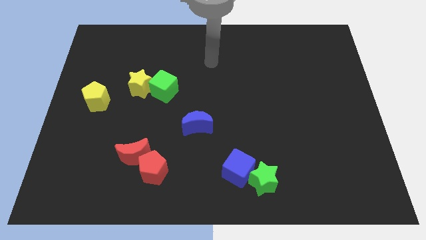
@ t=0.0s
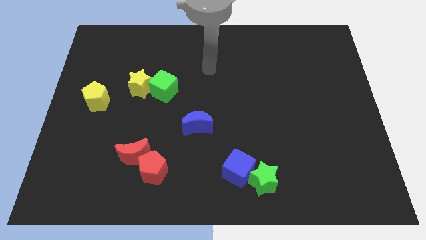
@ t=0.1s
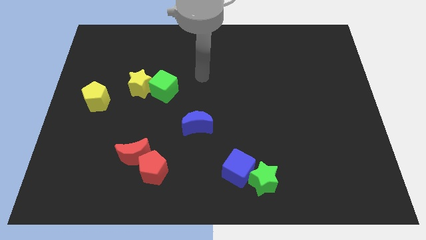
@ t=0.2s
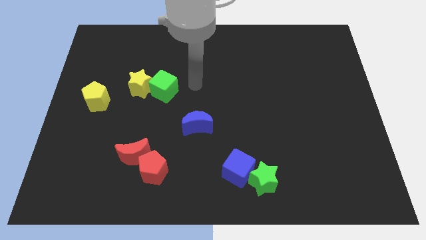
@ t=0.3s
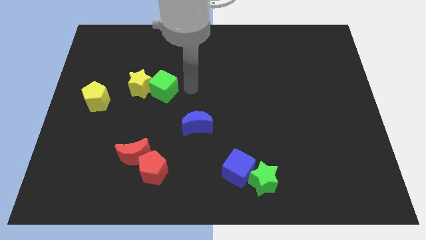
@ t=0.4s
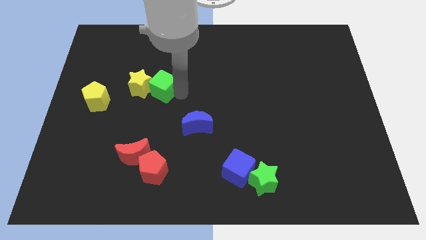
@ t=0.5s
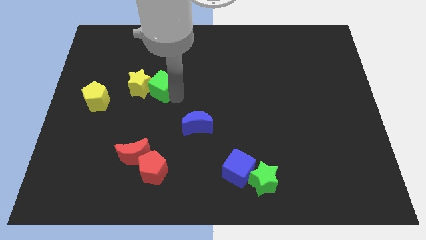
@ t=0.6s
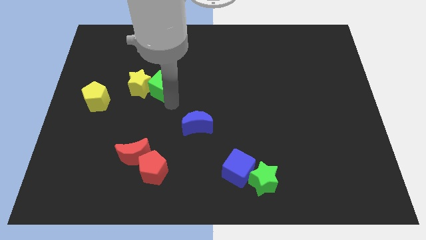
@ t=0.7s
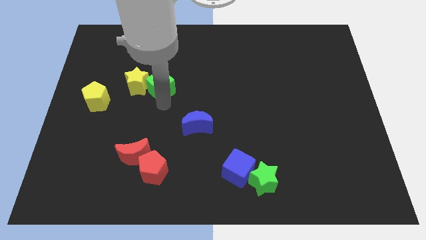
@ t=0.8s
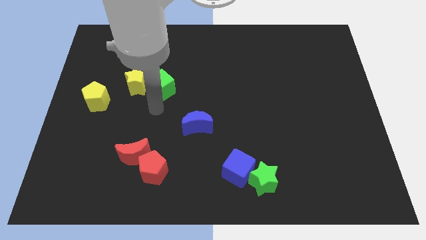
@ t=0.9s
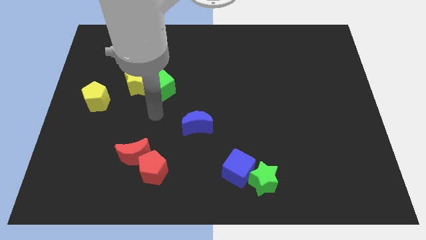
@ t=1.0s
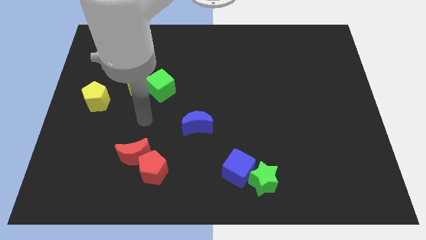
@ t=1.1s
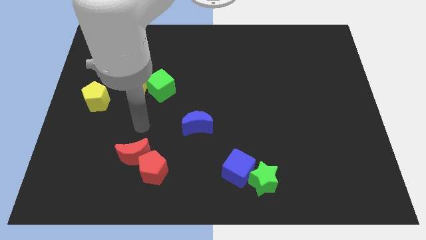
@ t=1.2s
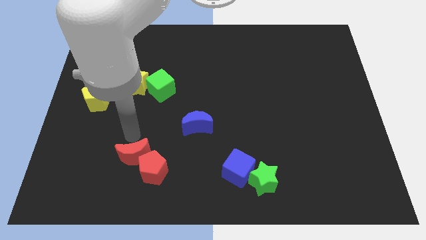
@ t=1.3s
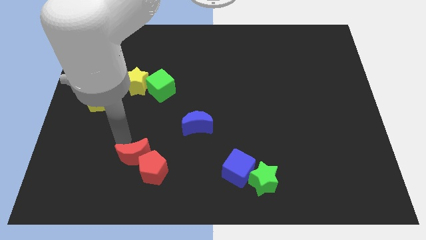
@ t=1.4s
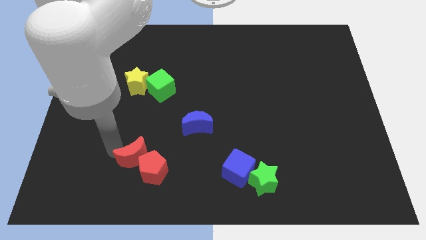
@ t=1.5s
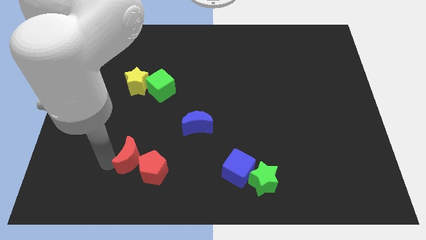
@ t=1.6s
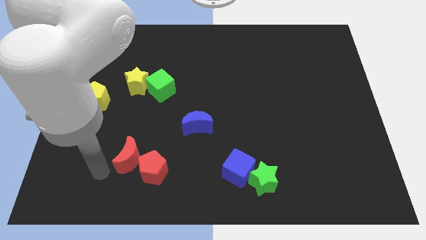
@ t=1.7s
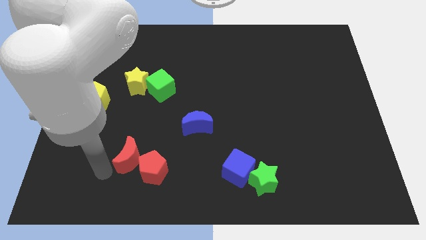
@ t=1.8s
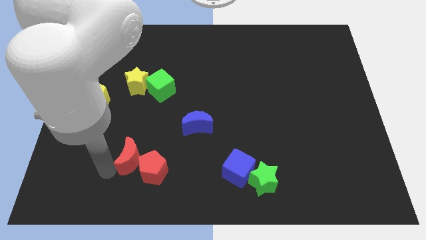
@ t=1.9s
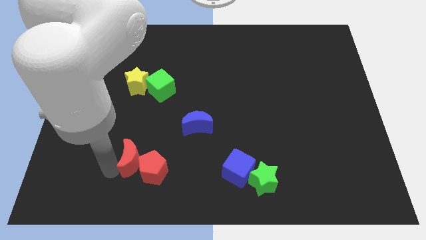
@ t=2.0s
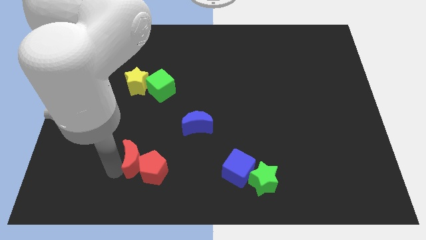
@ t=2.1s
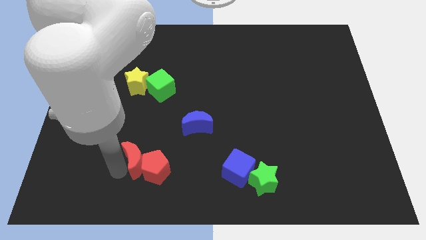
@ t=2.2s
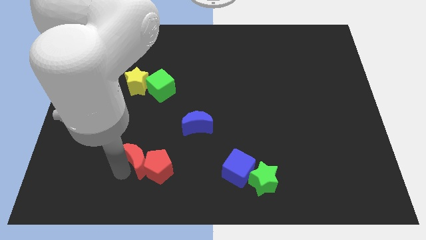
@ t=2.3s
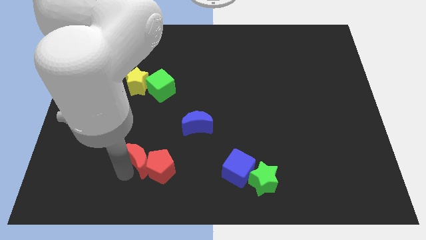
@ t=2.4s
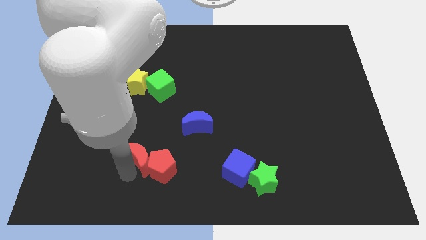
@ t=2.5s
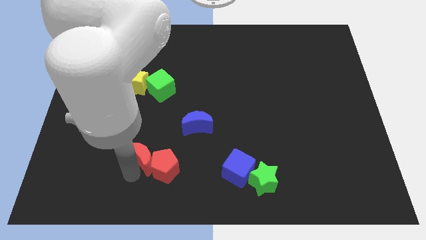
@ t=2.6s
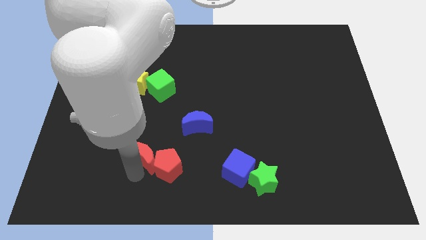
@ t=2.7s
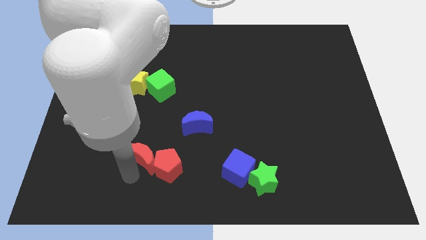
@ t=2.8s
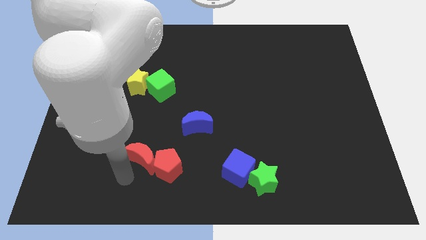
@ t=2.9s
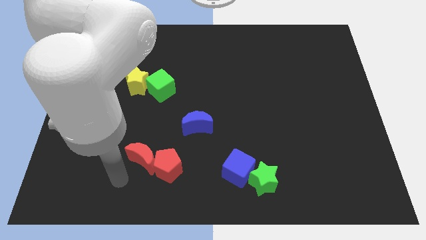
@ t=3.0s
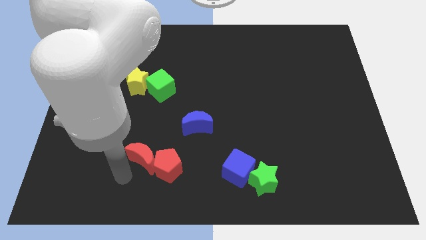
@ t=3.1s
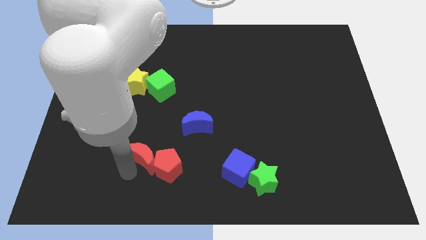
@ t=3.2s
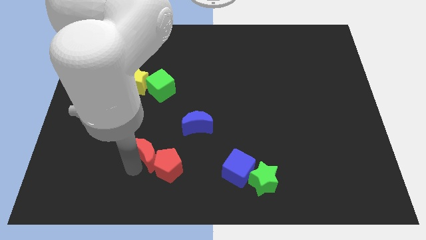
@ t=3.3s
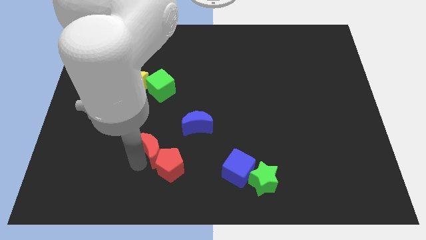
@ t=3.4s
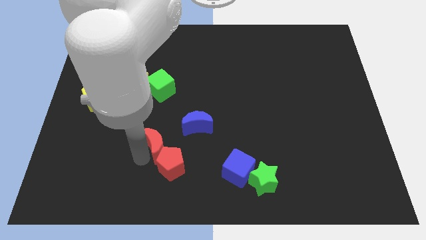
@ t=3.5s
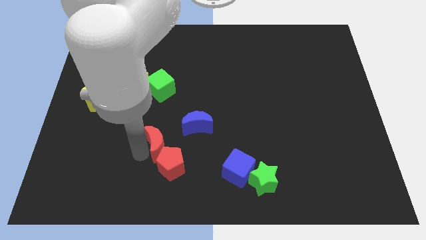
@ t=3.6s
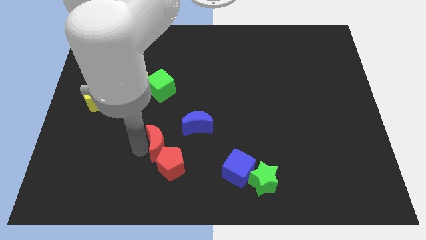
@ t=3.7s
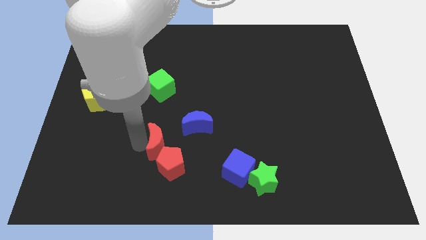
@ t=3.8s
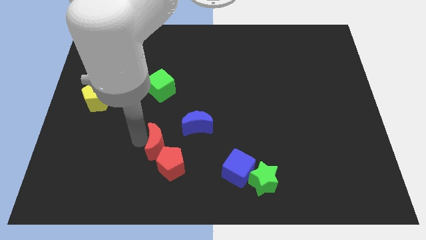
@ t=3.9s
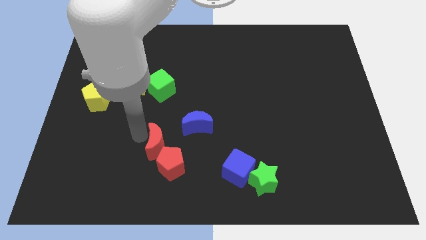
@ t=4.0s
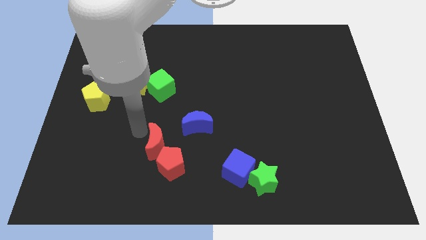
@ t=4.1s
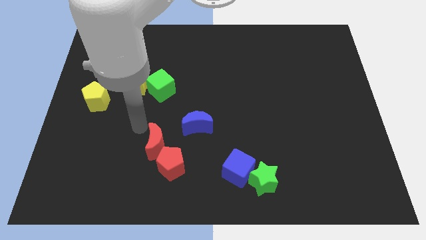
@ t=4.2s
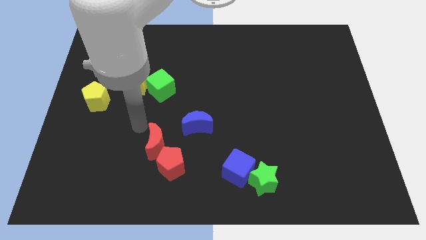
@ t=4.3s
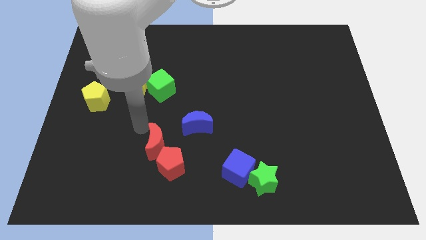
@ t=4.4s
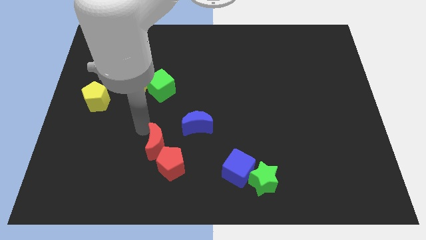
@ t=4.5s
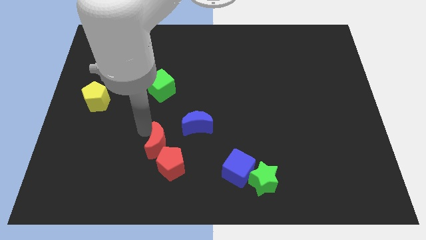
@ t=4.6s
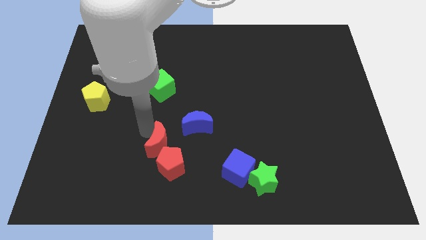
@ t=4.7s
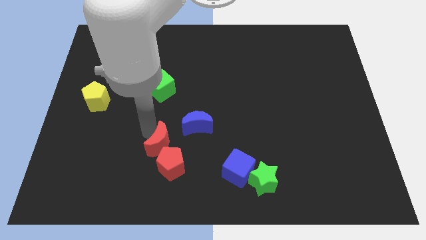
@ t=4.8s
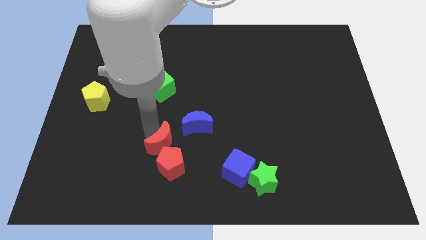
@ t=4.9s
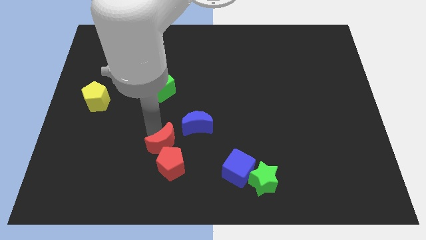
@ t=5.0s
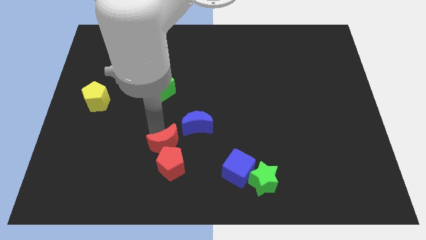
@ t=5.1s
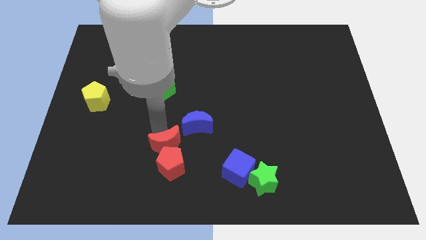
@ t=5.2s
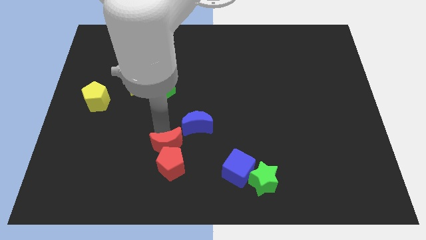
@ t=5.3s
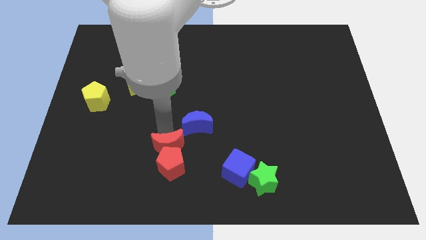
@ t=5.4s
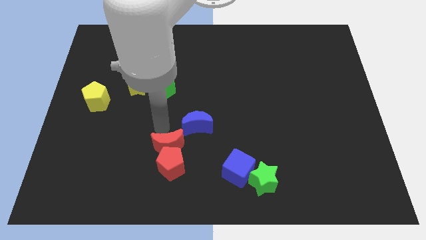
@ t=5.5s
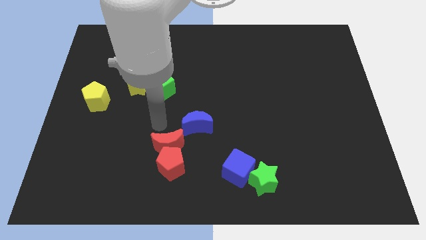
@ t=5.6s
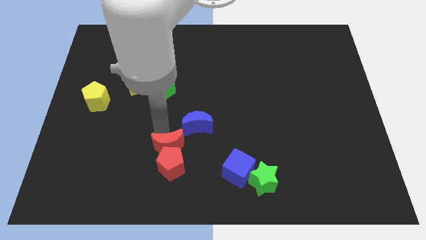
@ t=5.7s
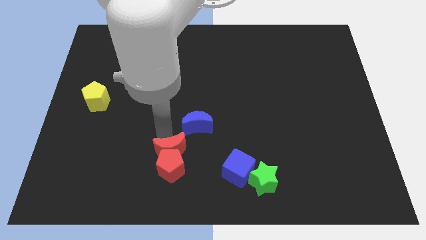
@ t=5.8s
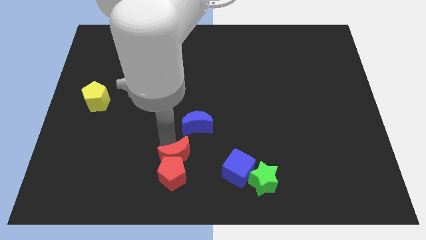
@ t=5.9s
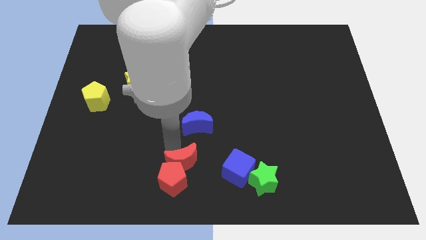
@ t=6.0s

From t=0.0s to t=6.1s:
put the red moon to the bottom
